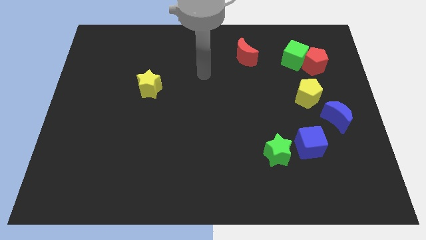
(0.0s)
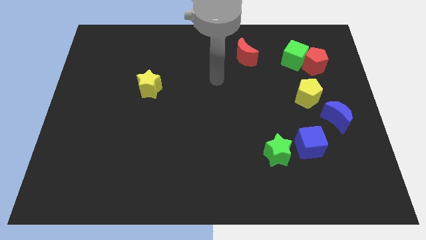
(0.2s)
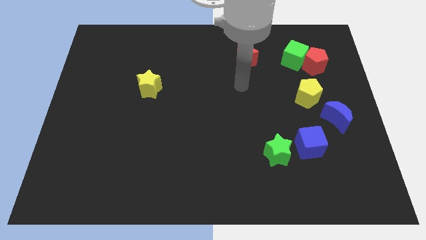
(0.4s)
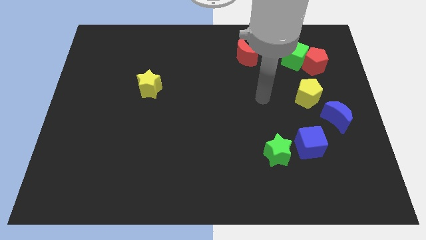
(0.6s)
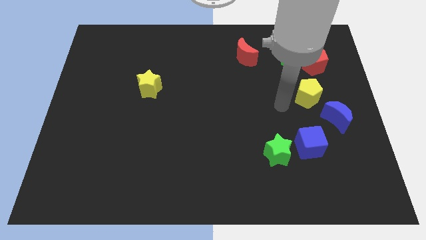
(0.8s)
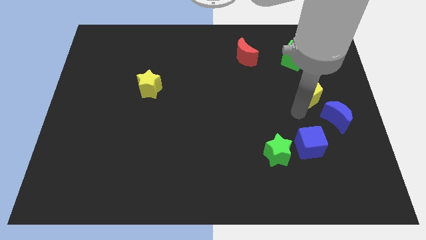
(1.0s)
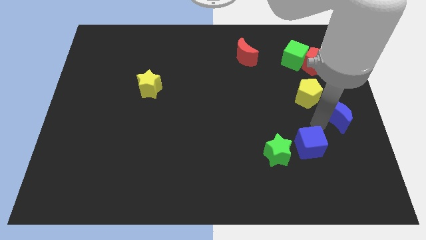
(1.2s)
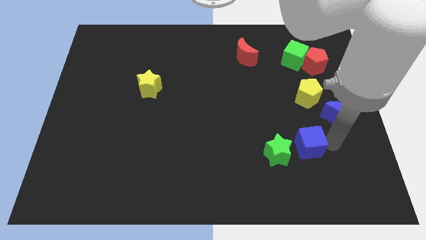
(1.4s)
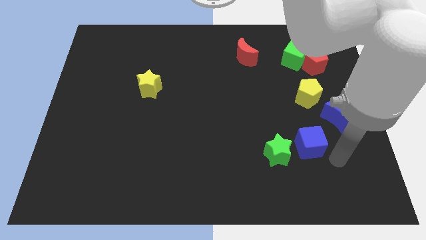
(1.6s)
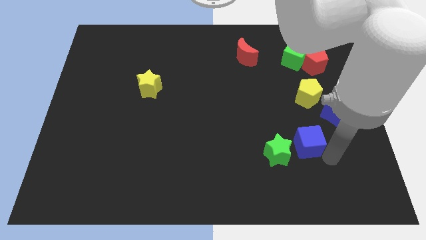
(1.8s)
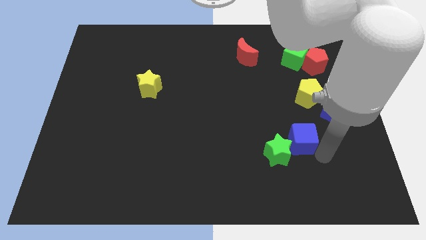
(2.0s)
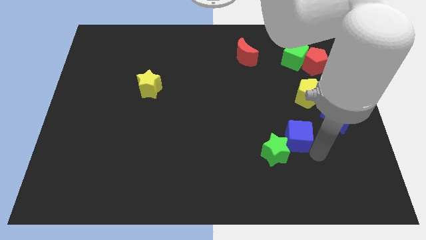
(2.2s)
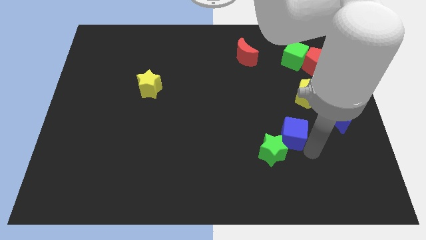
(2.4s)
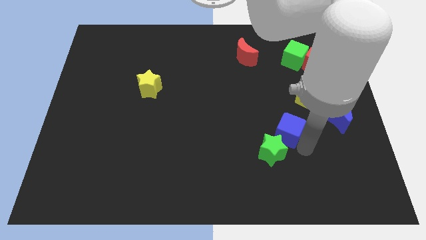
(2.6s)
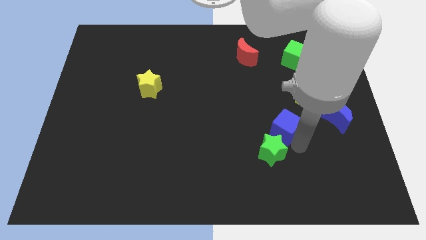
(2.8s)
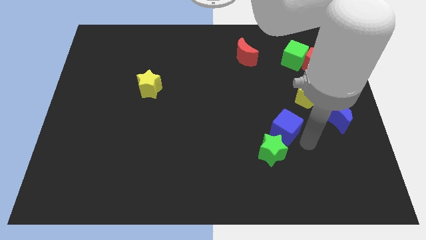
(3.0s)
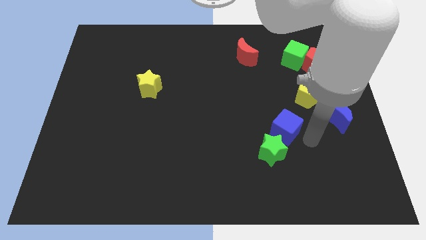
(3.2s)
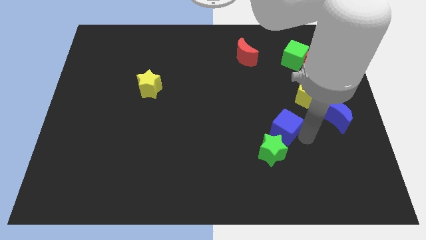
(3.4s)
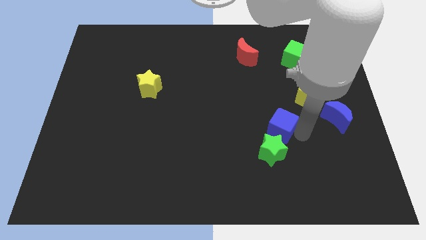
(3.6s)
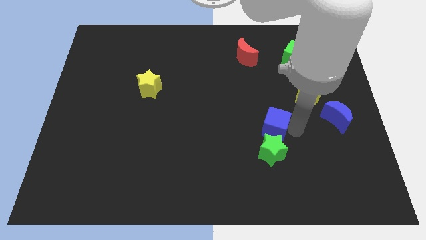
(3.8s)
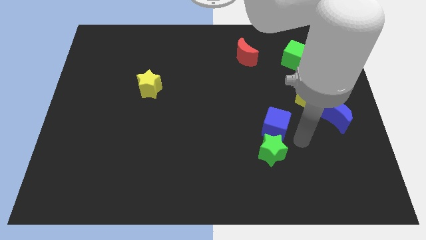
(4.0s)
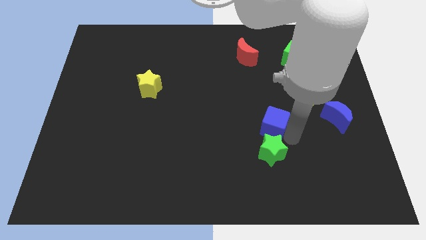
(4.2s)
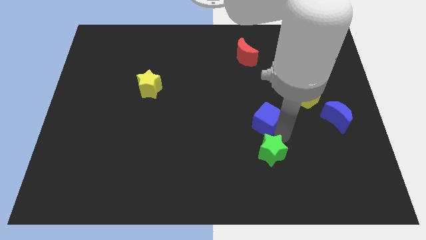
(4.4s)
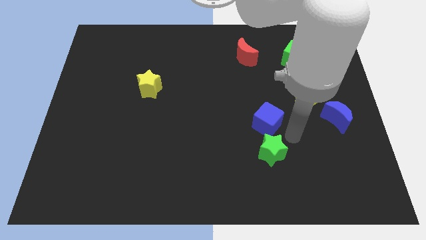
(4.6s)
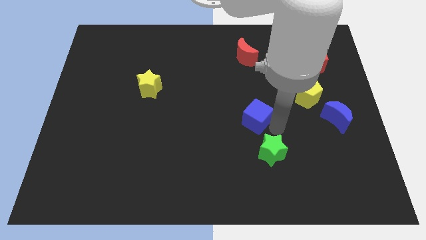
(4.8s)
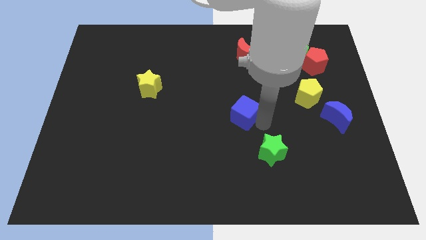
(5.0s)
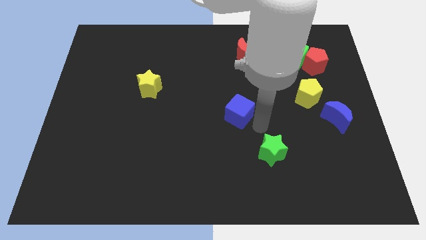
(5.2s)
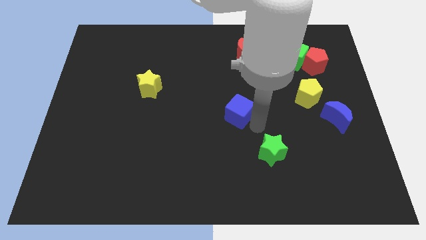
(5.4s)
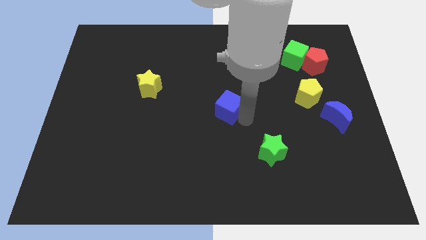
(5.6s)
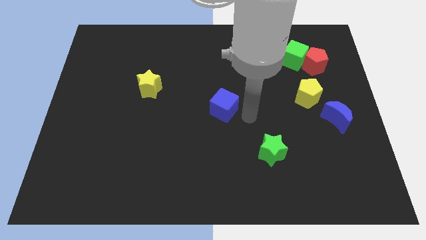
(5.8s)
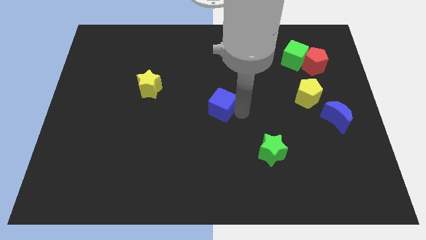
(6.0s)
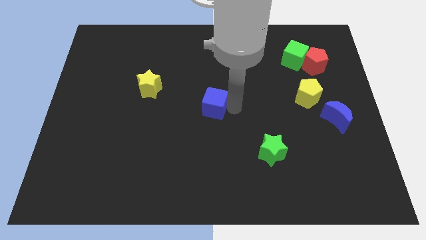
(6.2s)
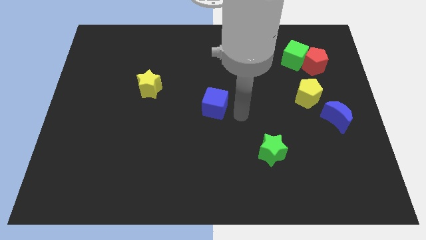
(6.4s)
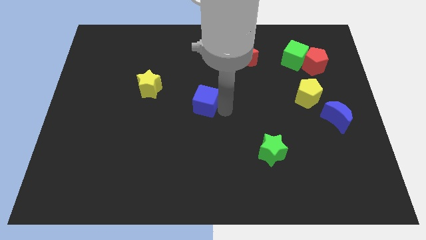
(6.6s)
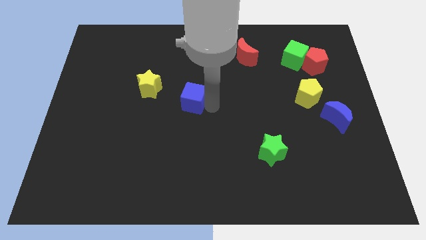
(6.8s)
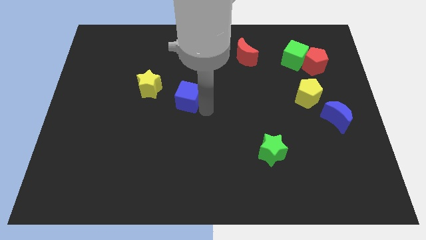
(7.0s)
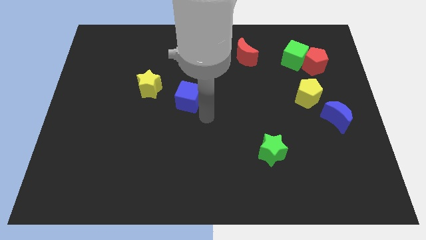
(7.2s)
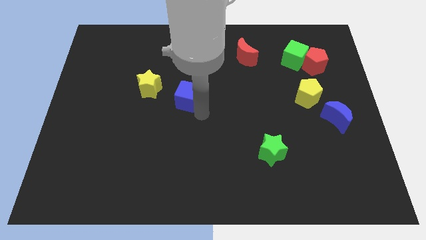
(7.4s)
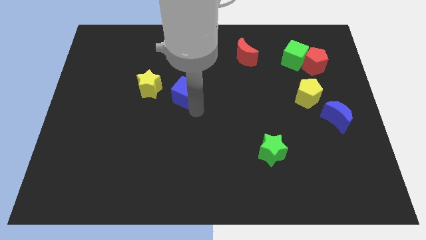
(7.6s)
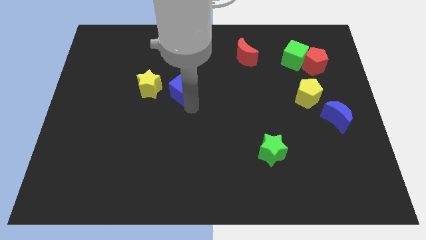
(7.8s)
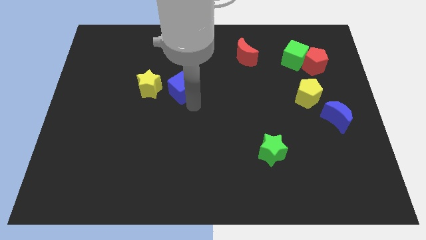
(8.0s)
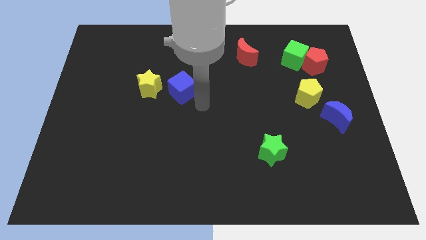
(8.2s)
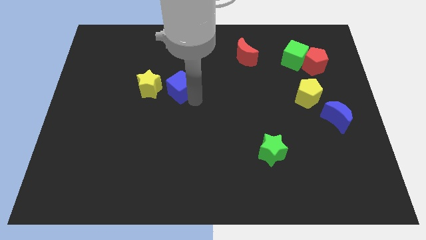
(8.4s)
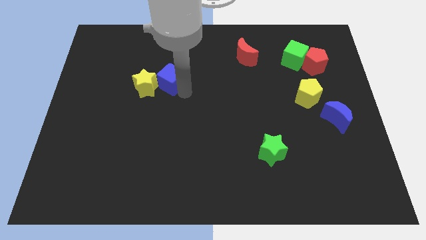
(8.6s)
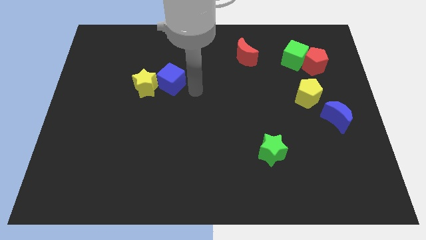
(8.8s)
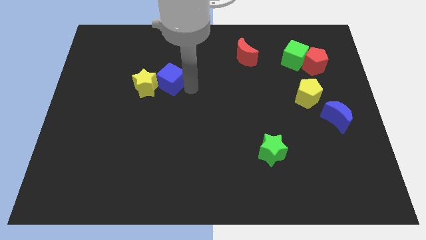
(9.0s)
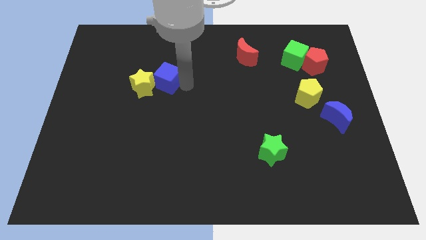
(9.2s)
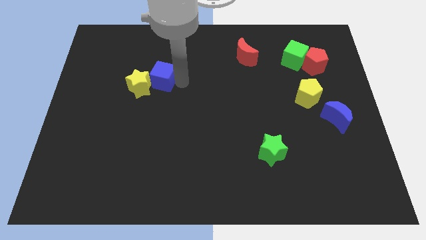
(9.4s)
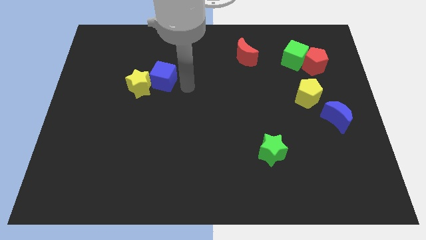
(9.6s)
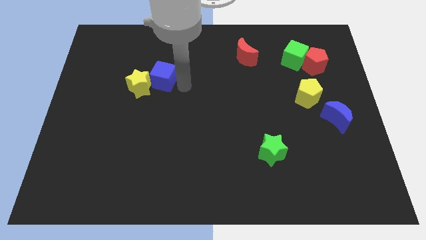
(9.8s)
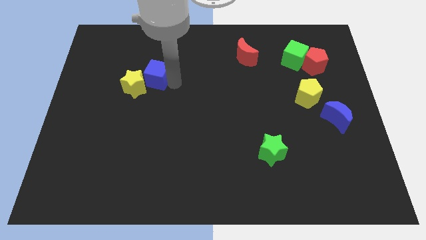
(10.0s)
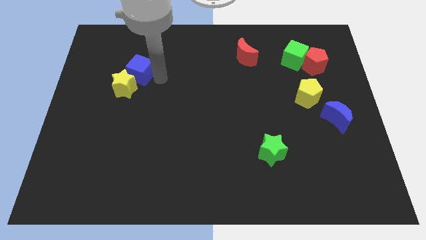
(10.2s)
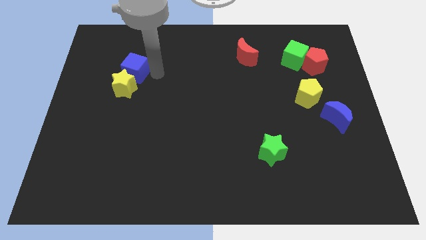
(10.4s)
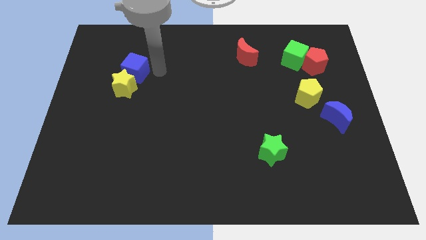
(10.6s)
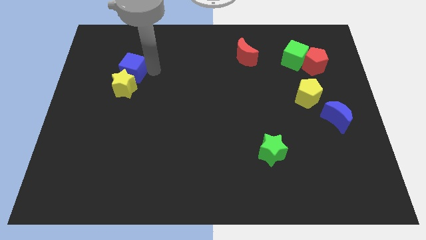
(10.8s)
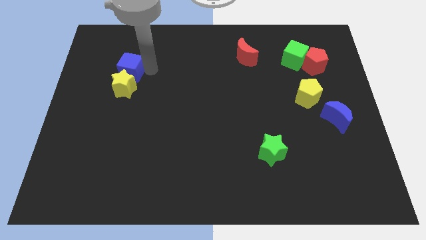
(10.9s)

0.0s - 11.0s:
slide the blue cube to the top left of the yellow star

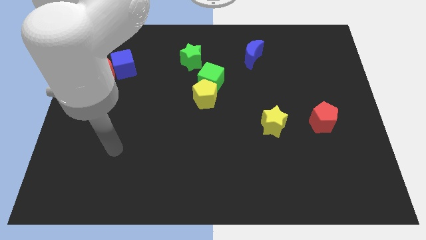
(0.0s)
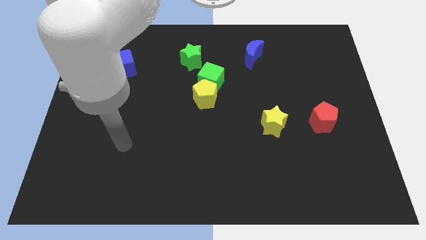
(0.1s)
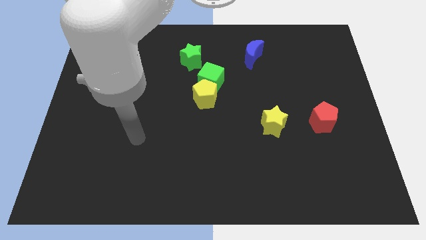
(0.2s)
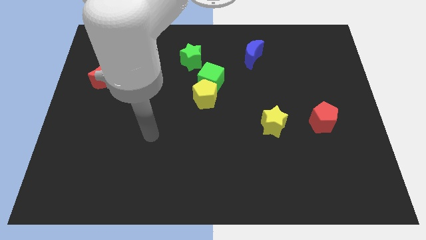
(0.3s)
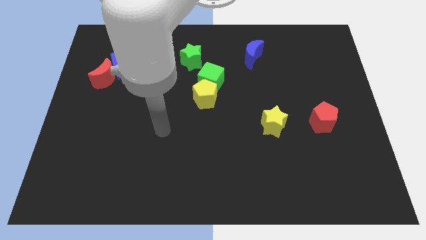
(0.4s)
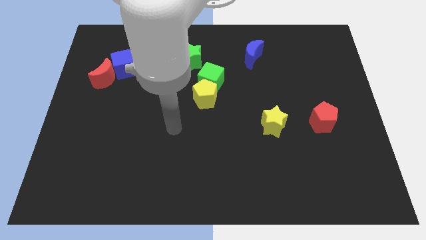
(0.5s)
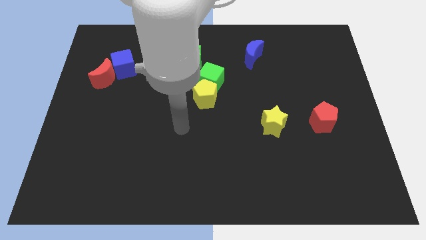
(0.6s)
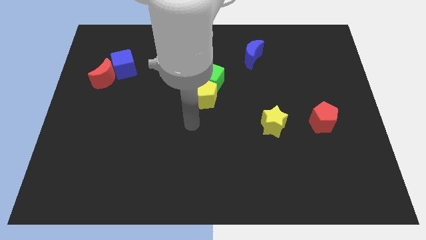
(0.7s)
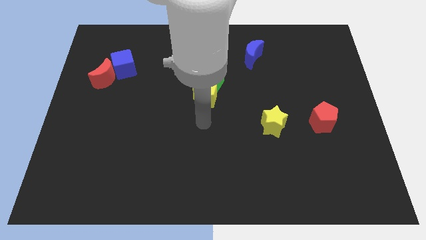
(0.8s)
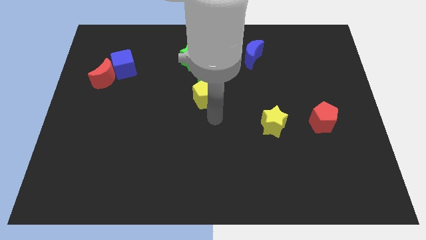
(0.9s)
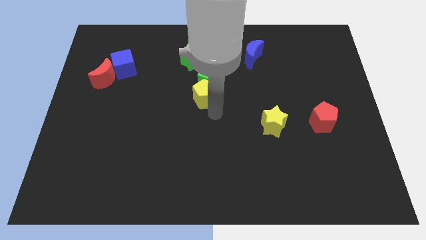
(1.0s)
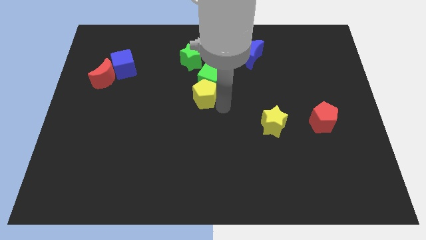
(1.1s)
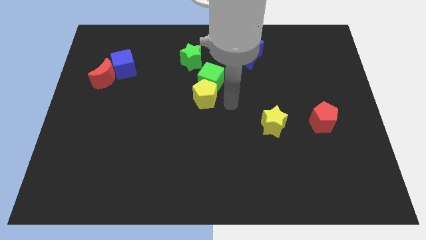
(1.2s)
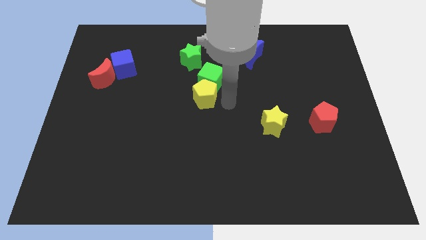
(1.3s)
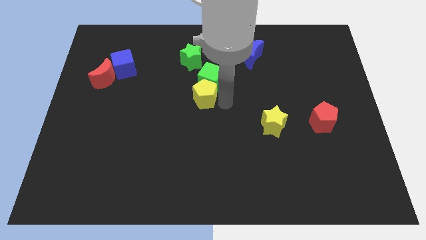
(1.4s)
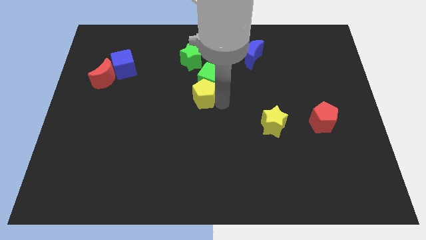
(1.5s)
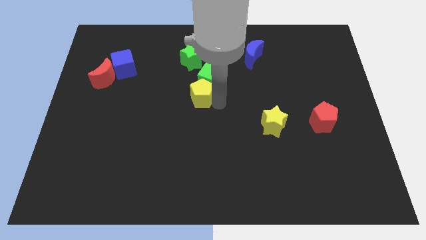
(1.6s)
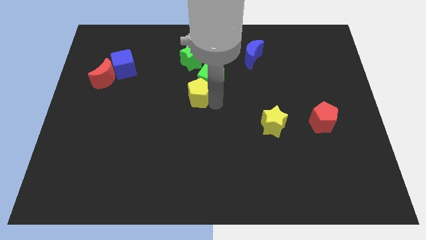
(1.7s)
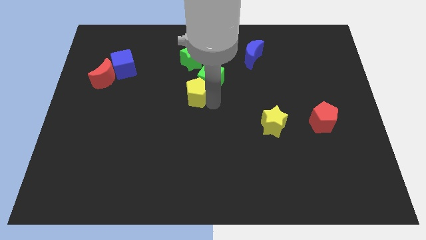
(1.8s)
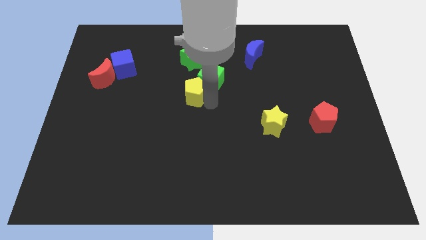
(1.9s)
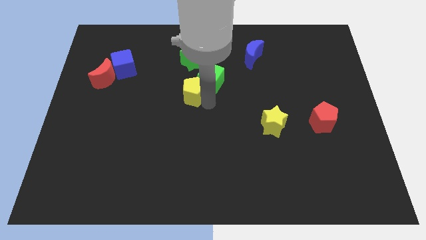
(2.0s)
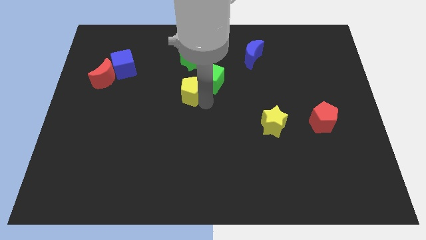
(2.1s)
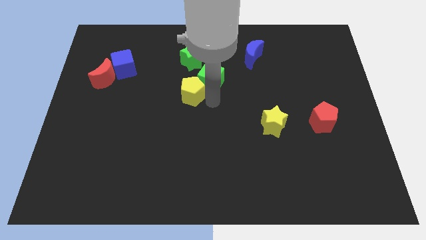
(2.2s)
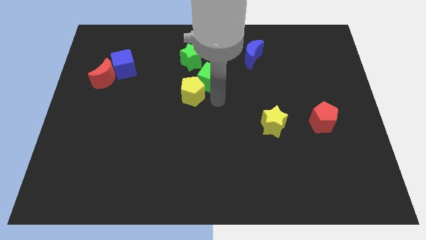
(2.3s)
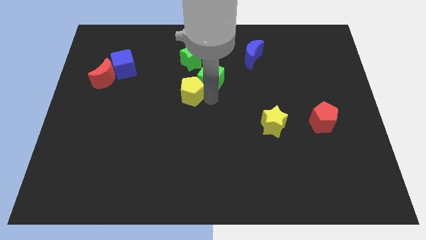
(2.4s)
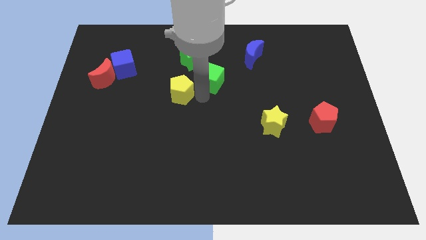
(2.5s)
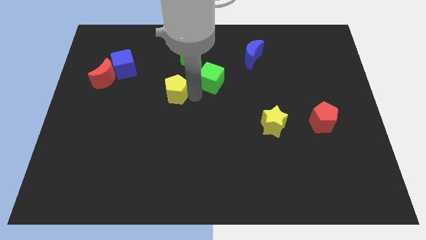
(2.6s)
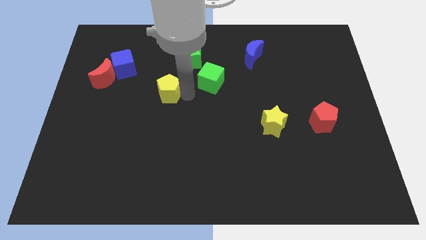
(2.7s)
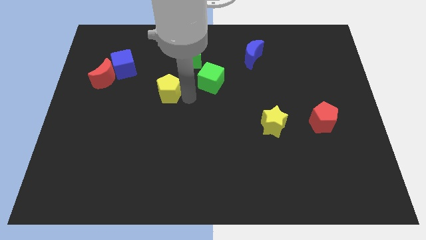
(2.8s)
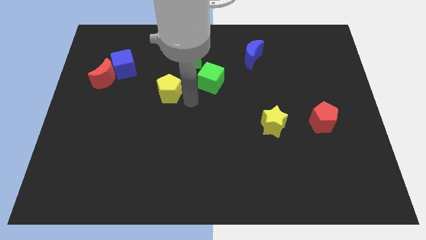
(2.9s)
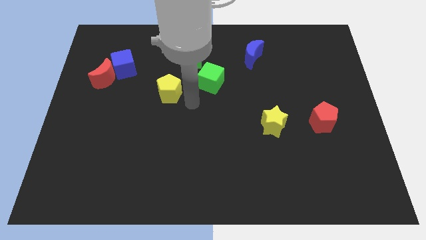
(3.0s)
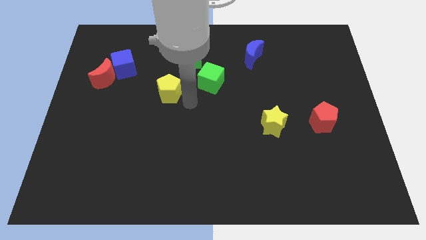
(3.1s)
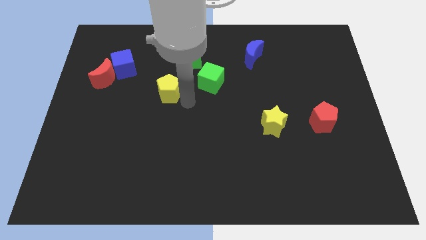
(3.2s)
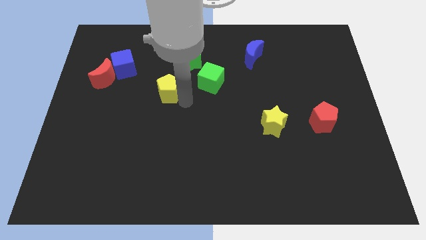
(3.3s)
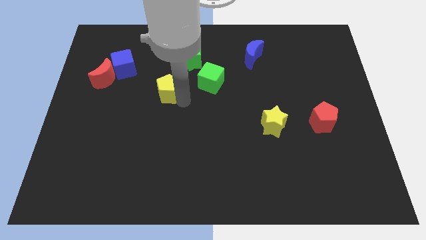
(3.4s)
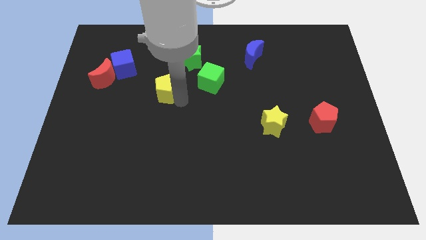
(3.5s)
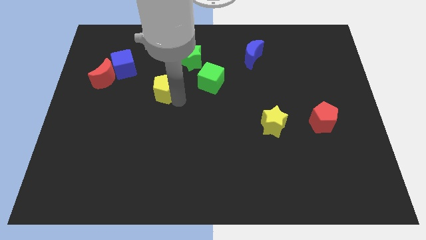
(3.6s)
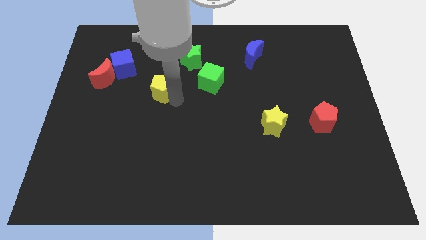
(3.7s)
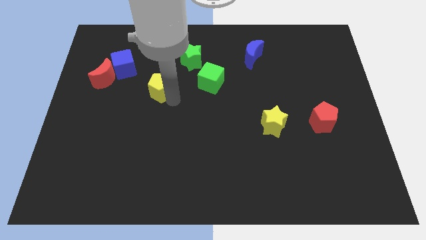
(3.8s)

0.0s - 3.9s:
move the yellow pentagon to the bottom right side of the blue cube
